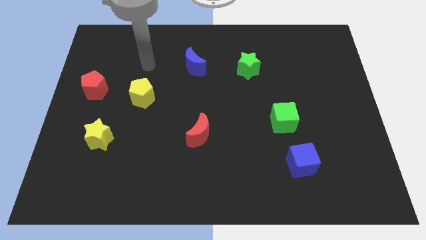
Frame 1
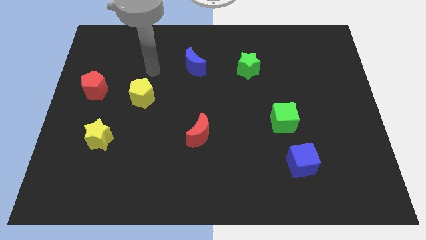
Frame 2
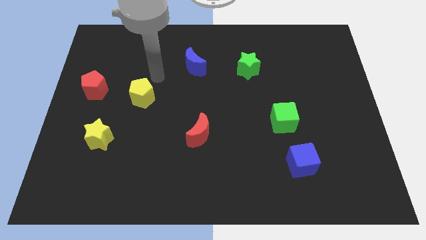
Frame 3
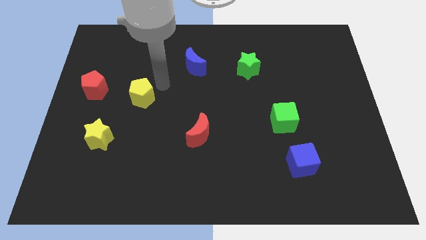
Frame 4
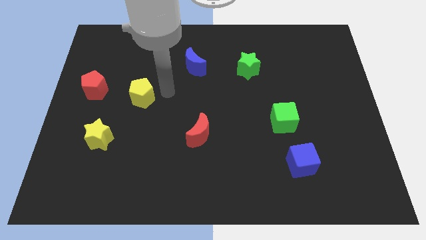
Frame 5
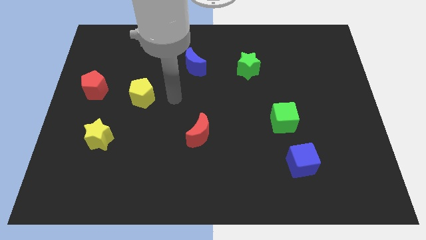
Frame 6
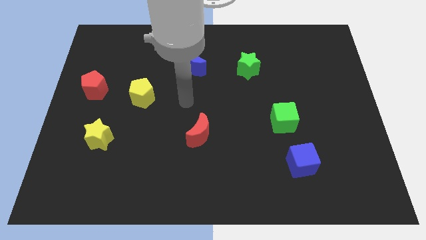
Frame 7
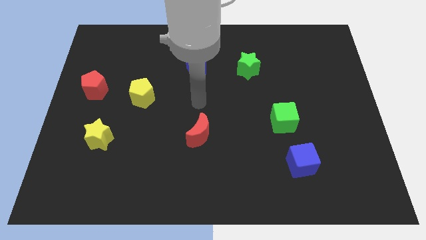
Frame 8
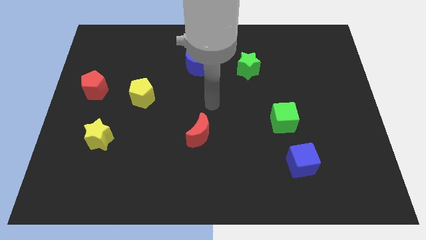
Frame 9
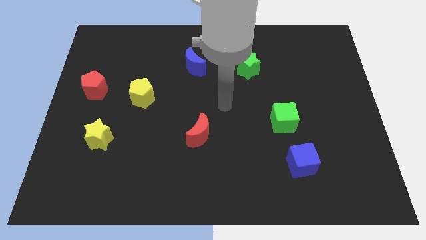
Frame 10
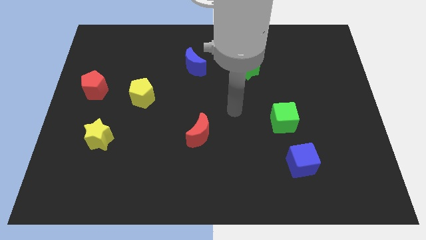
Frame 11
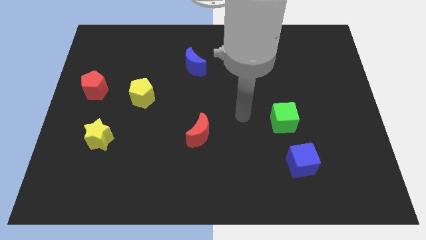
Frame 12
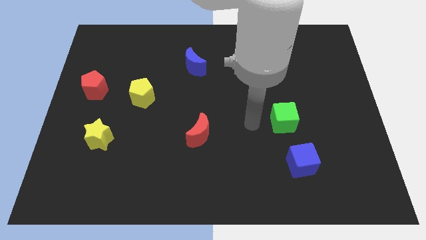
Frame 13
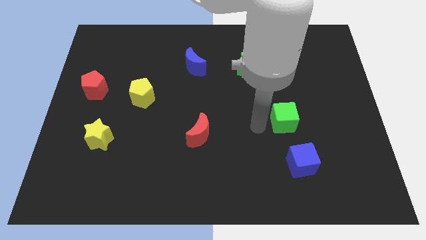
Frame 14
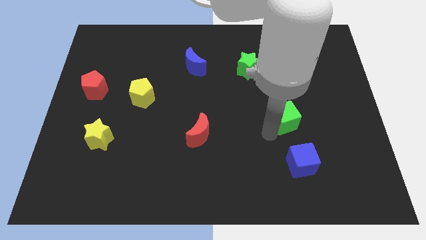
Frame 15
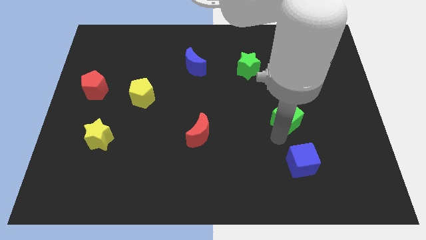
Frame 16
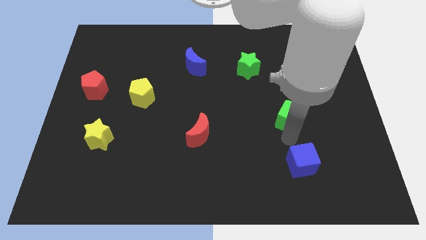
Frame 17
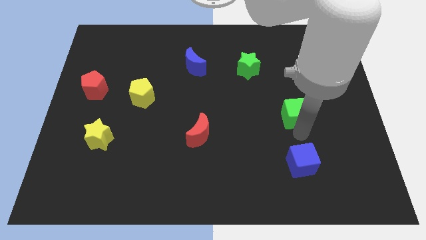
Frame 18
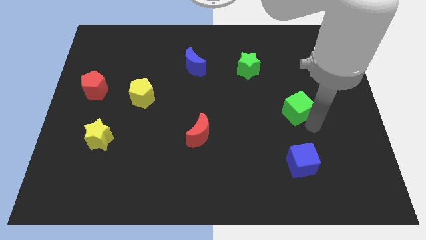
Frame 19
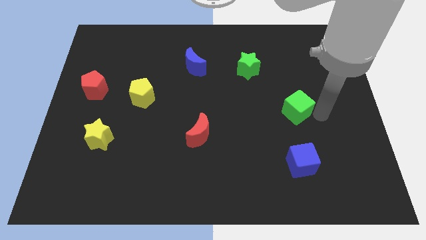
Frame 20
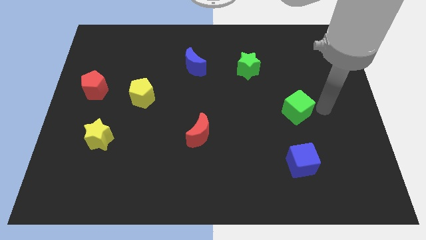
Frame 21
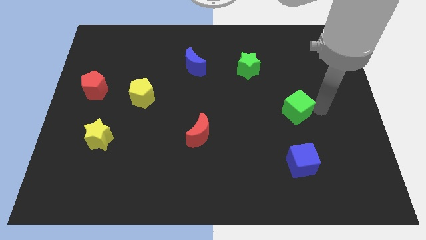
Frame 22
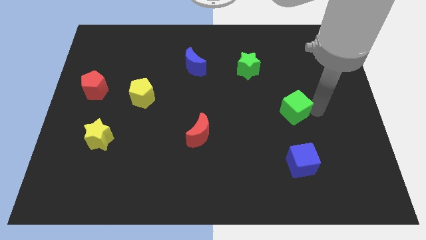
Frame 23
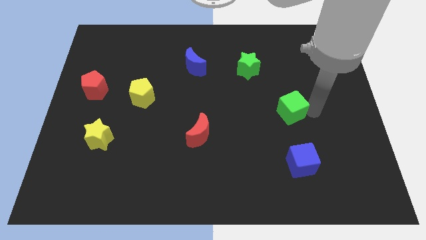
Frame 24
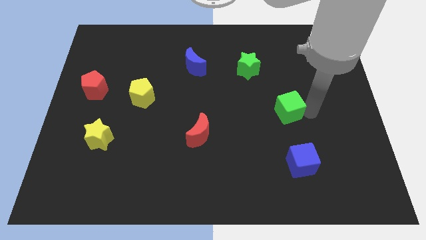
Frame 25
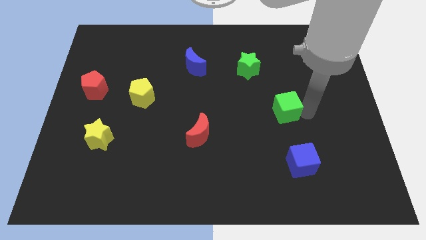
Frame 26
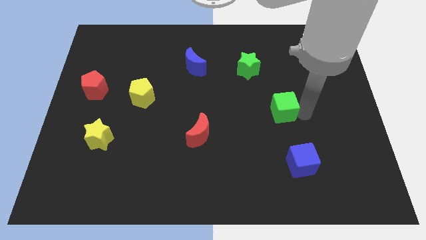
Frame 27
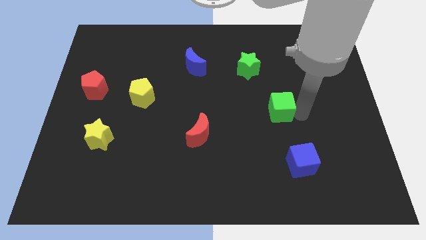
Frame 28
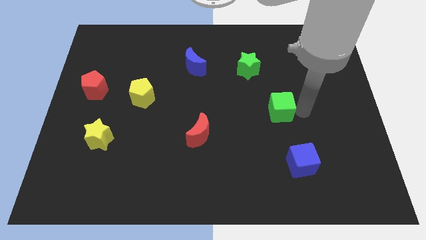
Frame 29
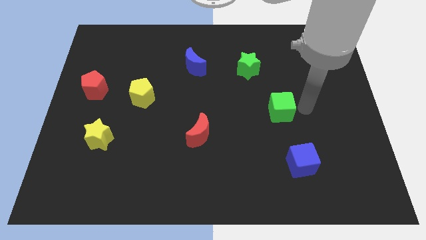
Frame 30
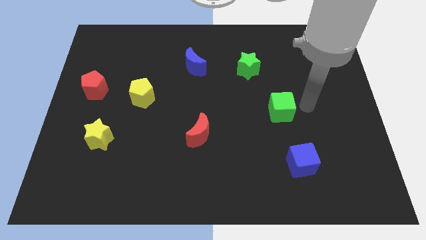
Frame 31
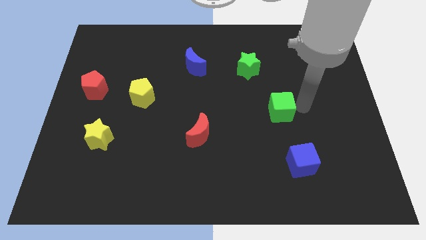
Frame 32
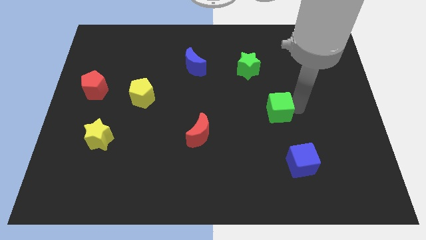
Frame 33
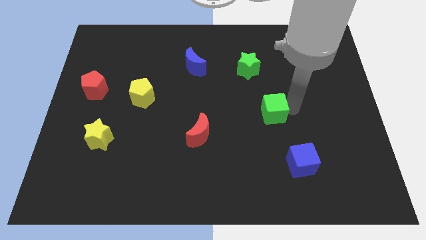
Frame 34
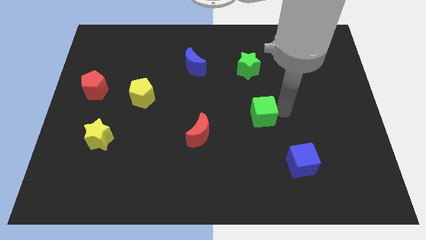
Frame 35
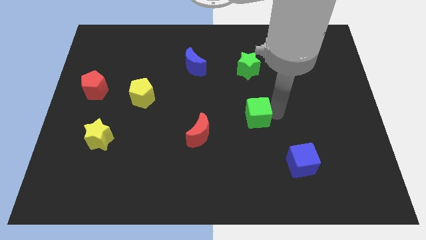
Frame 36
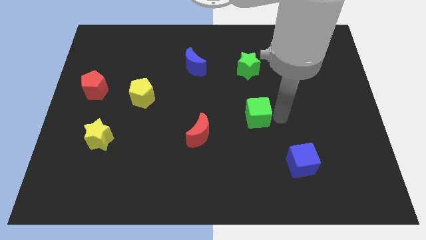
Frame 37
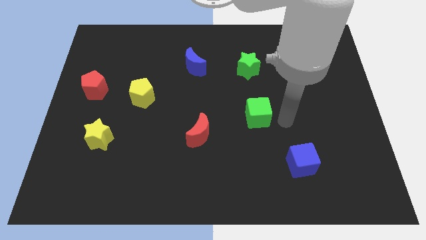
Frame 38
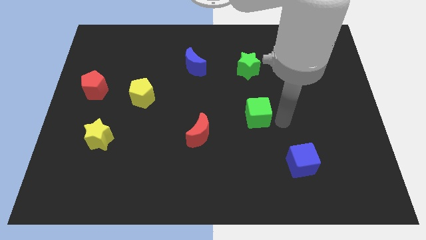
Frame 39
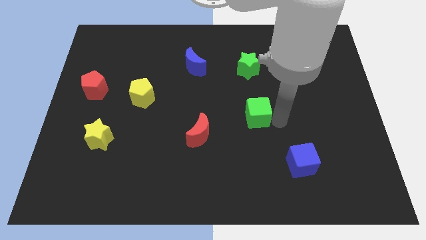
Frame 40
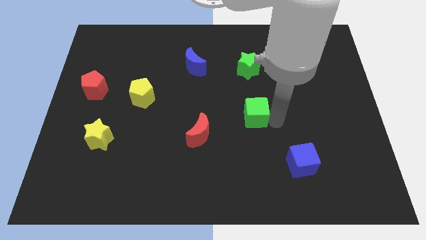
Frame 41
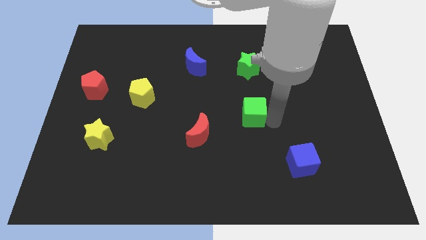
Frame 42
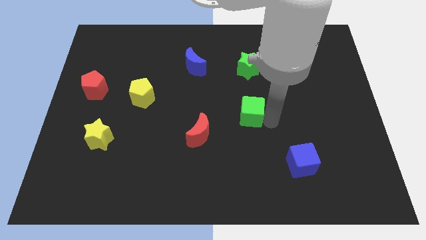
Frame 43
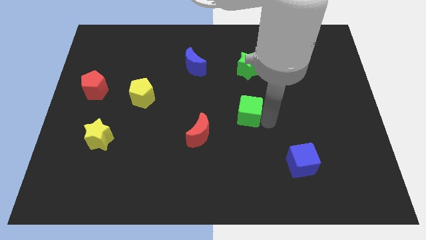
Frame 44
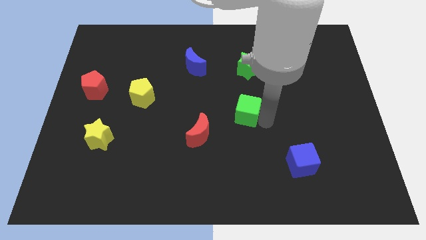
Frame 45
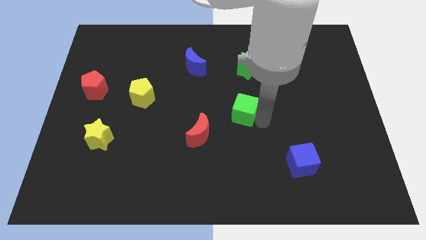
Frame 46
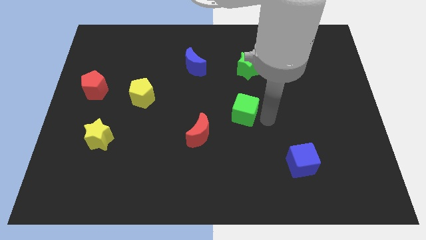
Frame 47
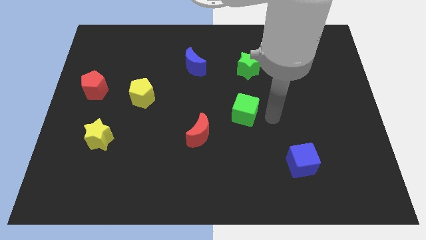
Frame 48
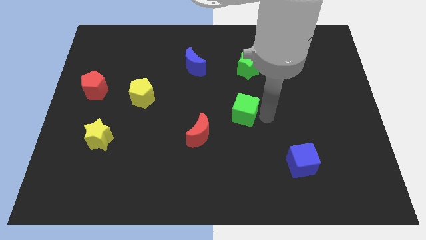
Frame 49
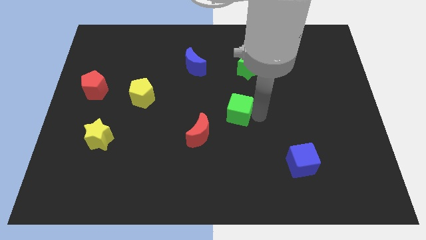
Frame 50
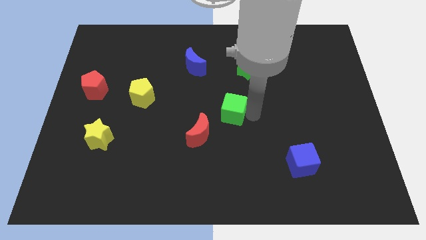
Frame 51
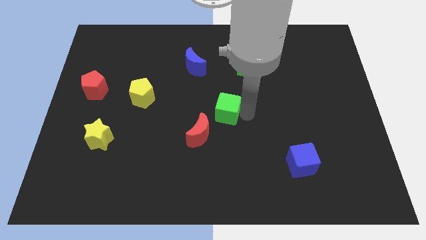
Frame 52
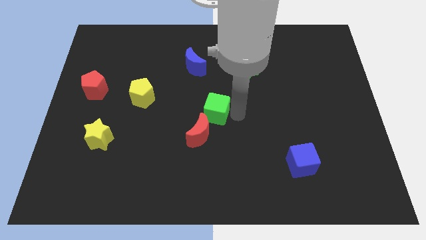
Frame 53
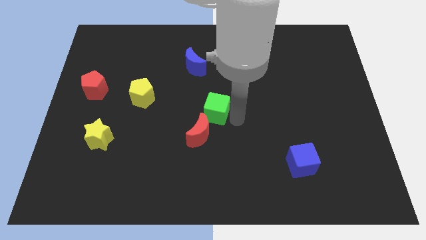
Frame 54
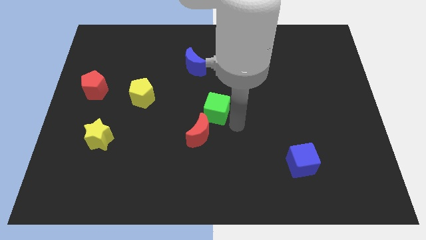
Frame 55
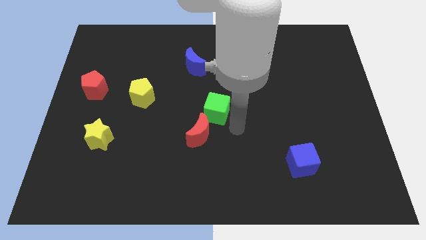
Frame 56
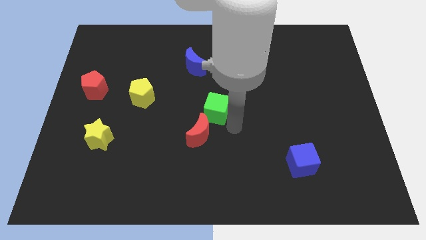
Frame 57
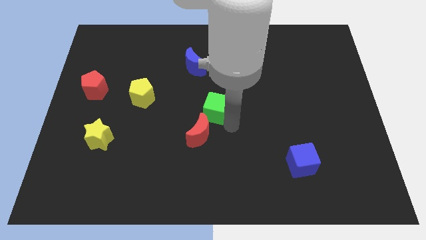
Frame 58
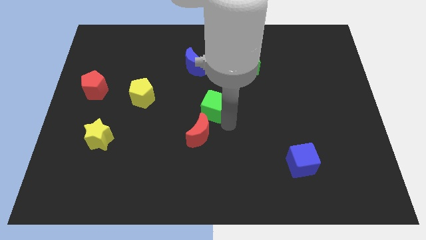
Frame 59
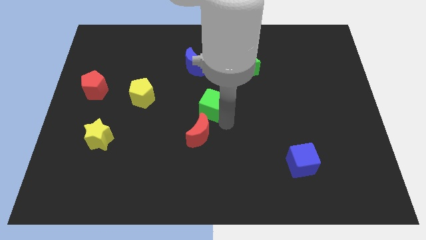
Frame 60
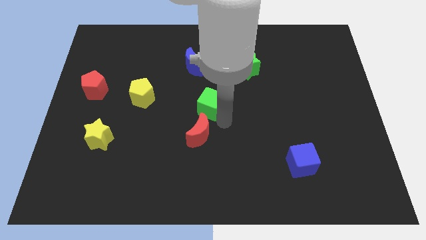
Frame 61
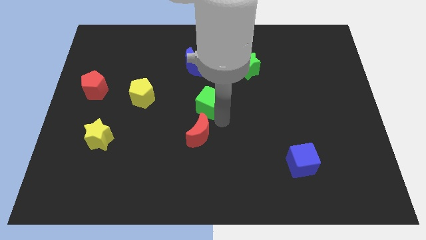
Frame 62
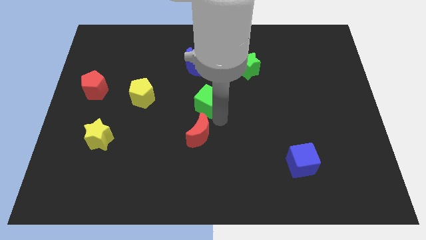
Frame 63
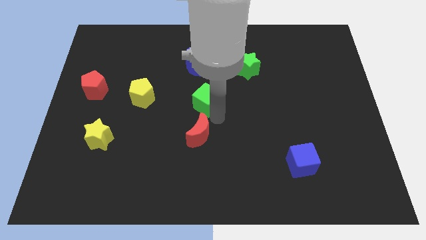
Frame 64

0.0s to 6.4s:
put the green cube just right of the yellow pentagon

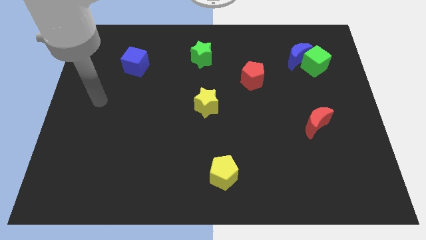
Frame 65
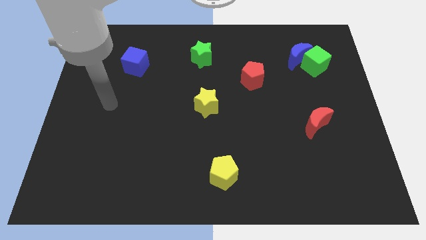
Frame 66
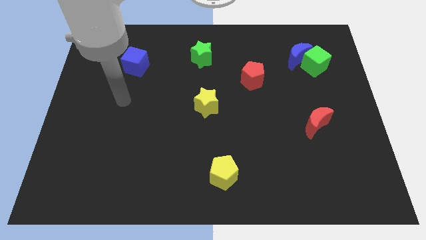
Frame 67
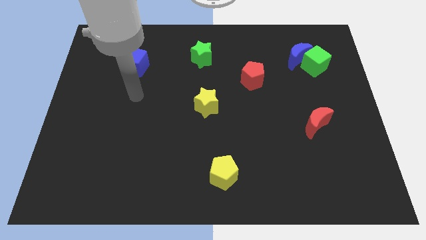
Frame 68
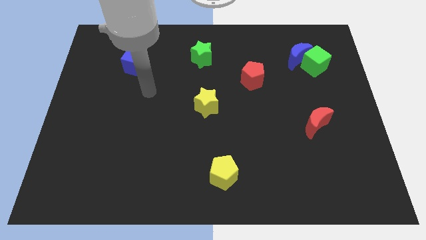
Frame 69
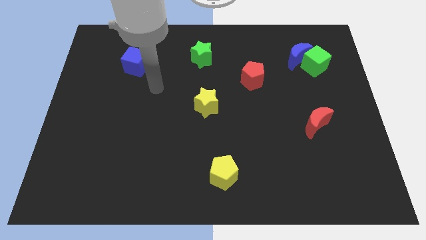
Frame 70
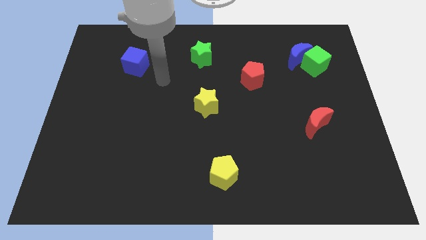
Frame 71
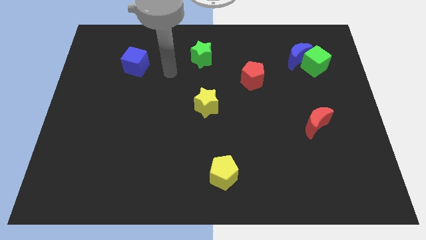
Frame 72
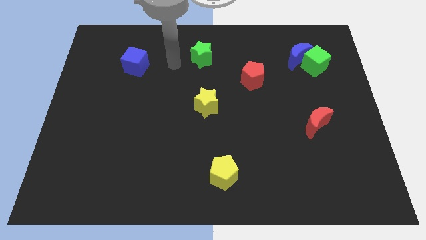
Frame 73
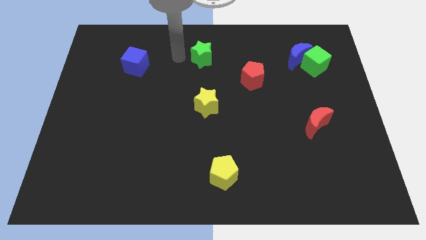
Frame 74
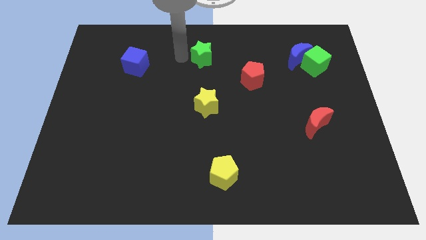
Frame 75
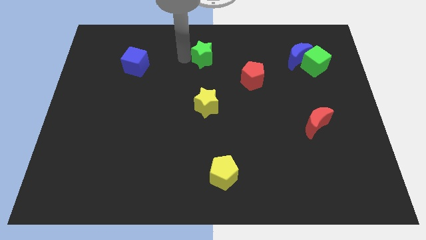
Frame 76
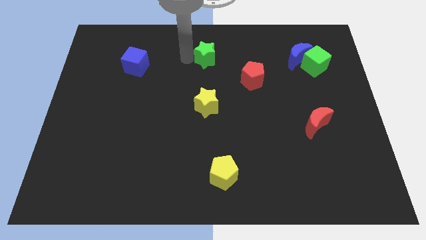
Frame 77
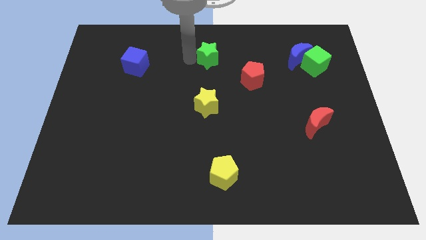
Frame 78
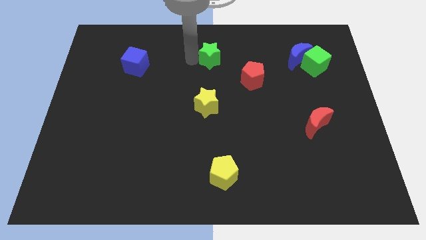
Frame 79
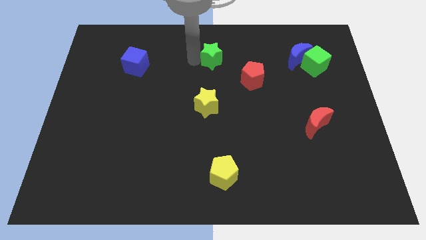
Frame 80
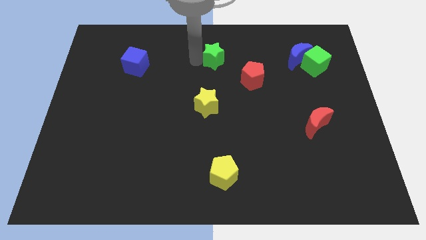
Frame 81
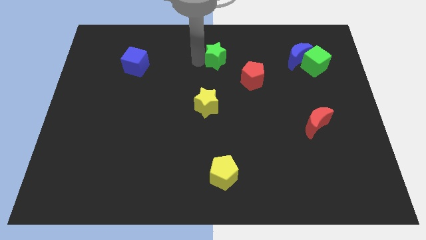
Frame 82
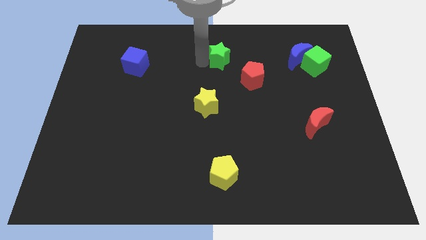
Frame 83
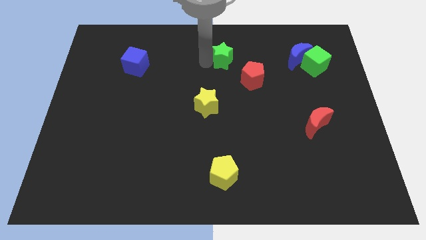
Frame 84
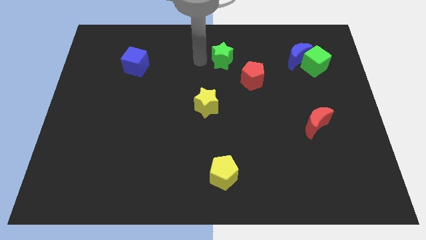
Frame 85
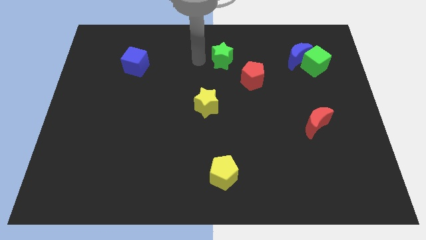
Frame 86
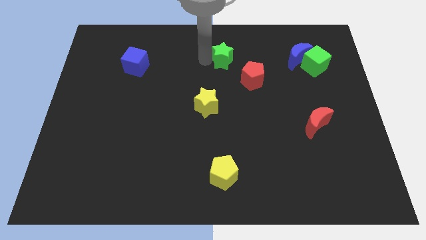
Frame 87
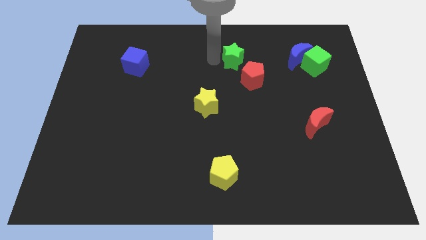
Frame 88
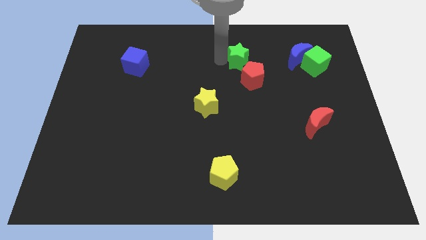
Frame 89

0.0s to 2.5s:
move the green star just left of the blue moon
